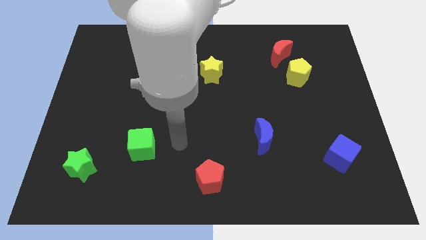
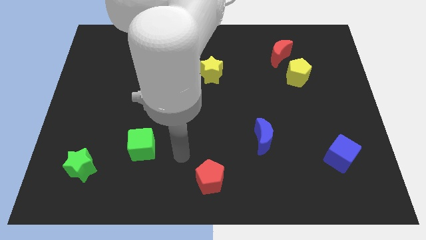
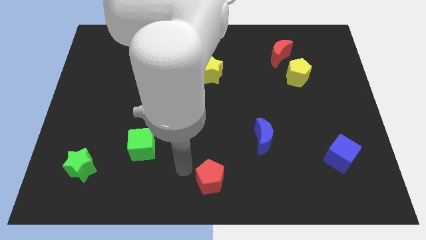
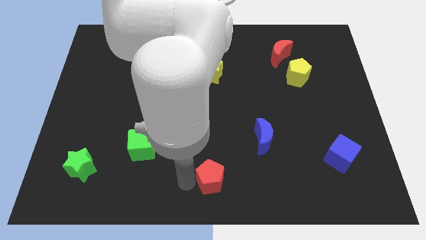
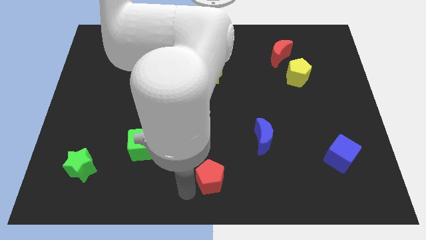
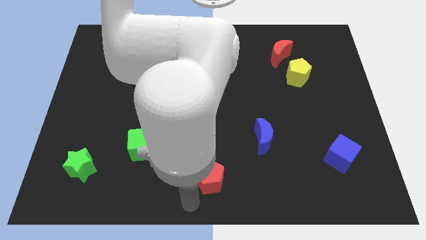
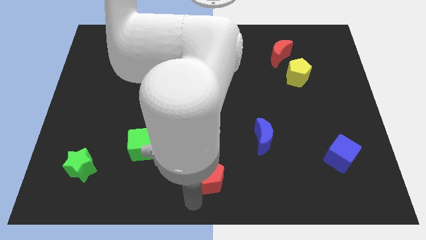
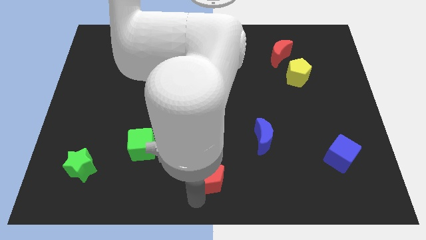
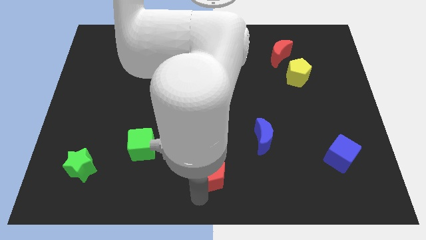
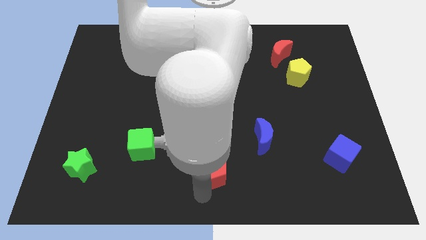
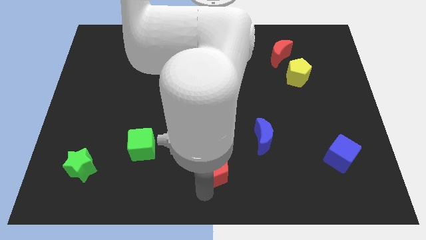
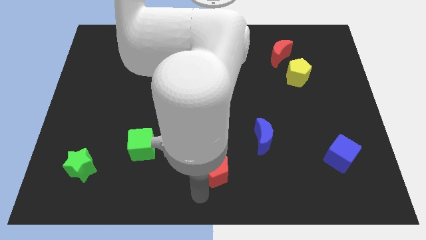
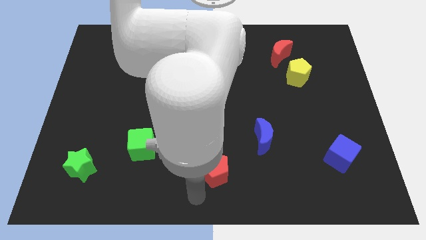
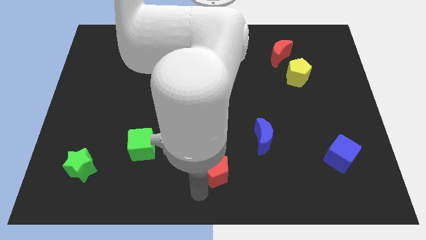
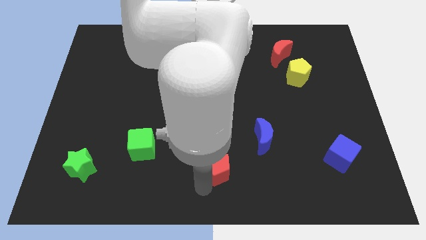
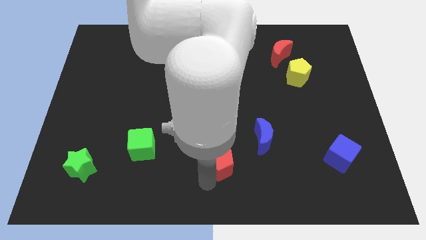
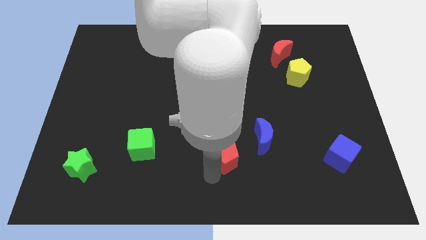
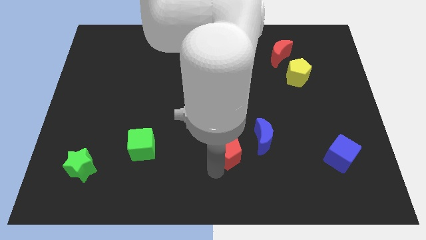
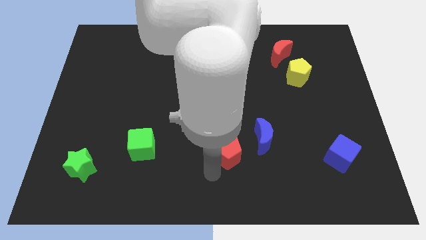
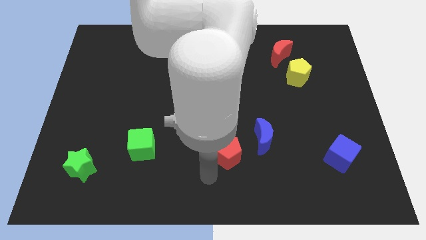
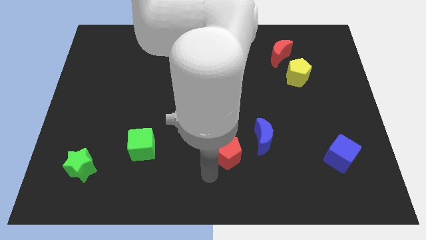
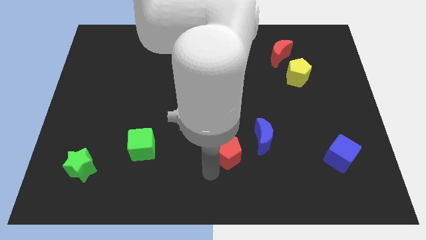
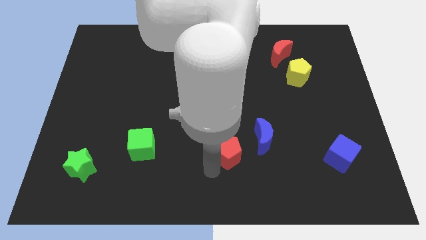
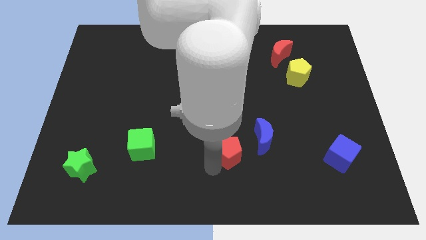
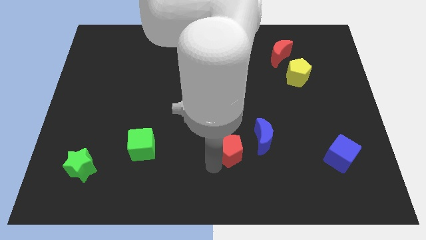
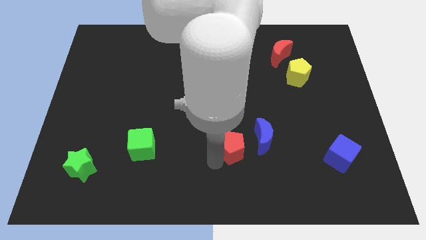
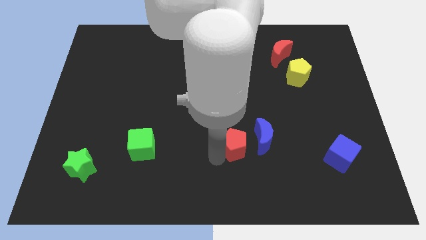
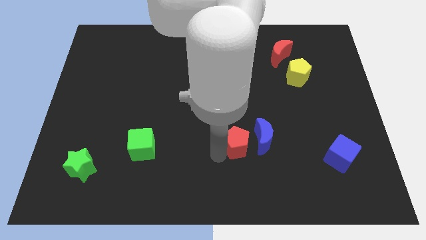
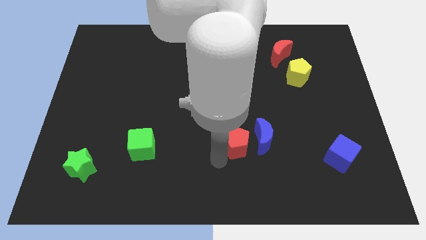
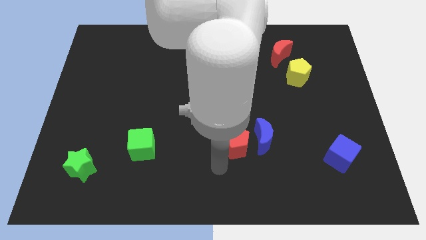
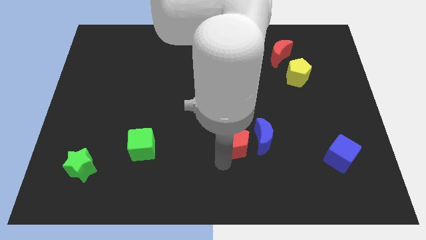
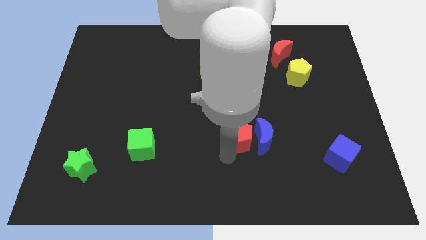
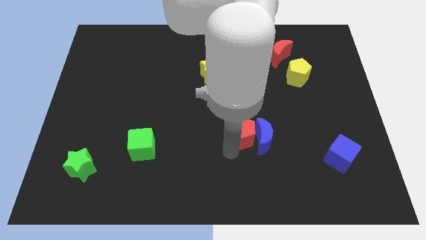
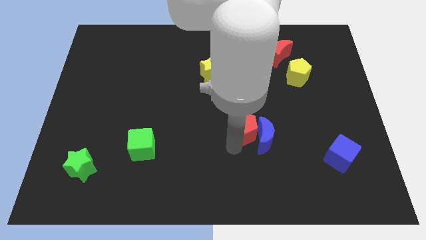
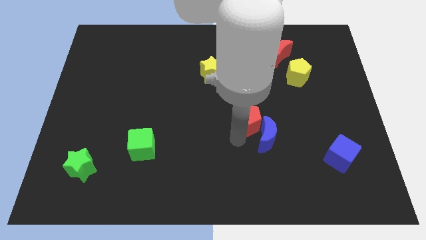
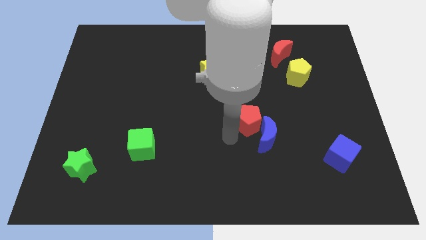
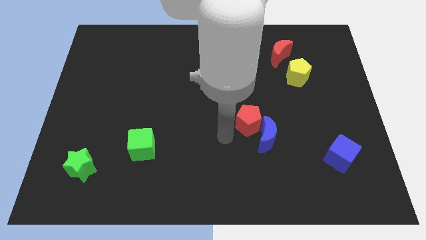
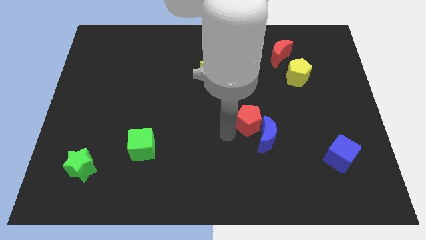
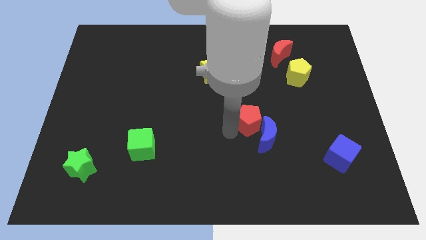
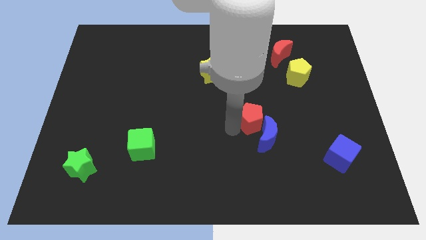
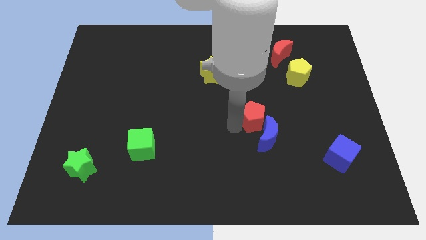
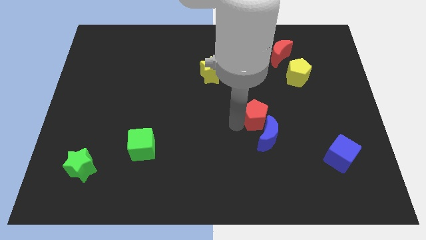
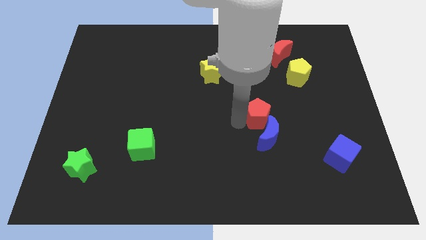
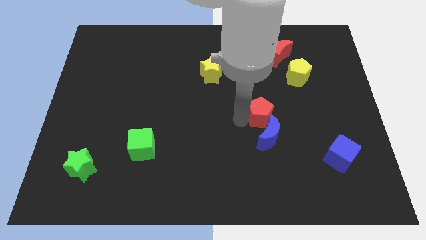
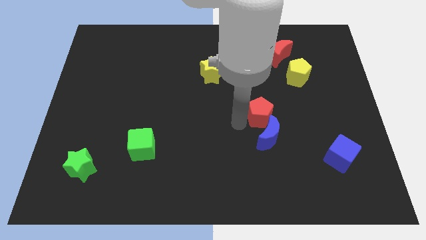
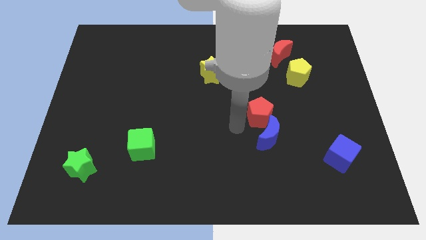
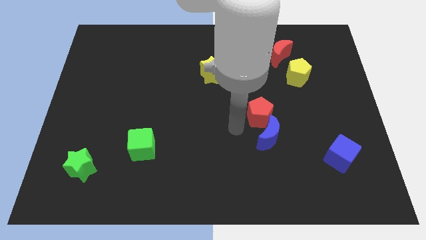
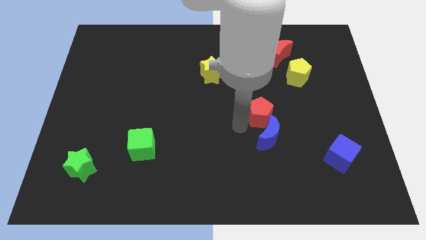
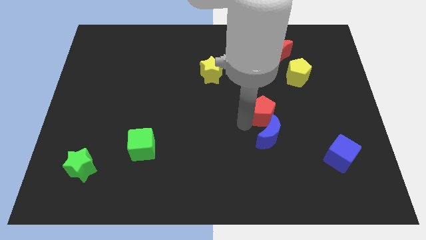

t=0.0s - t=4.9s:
push the red pentagon up and then right

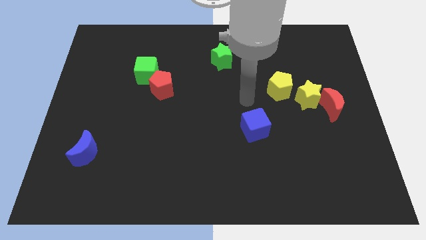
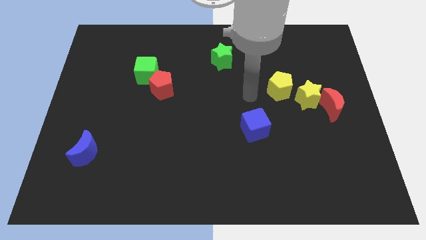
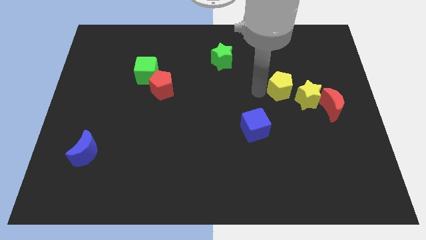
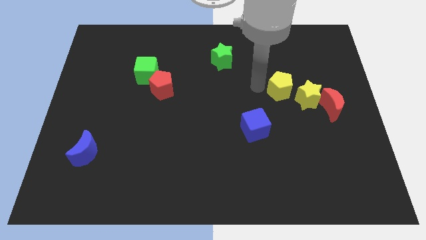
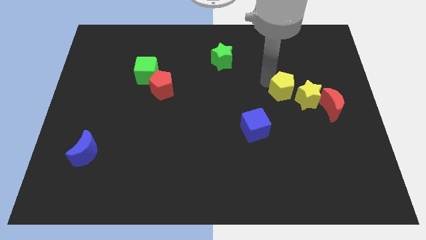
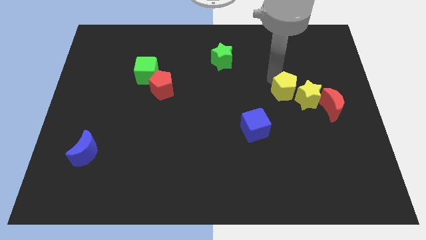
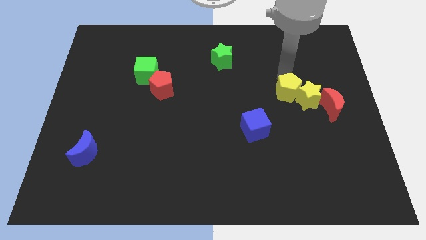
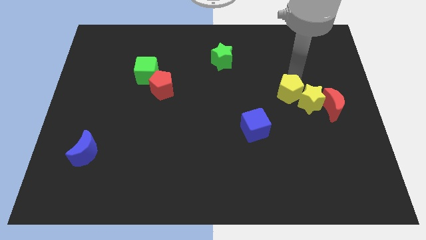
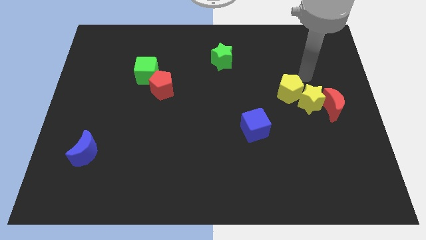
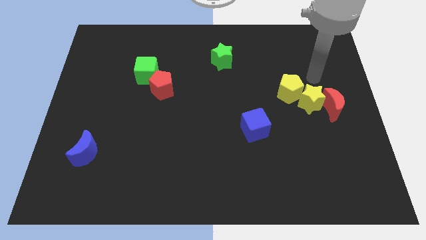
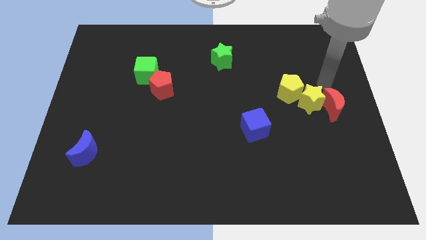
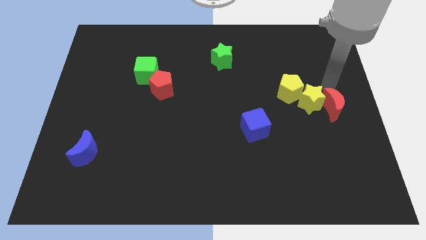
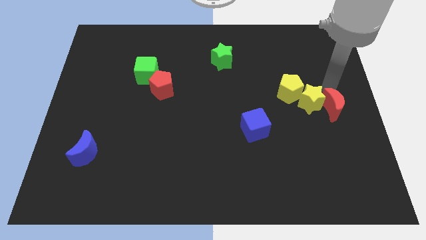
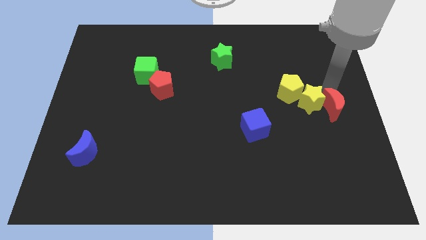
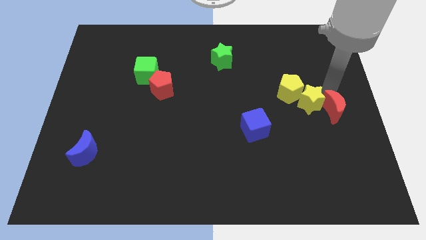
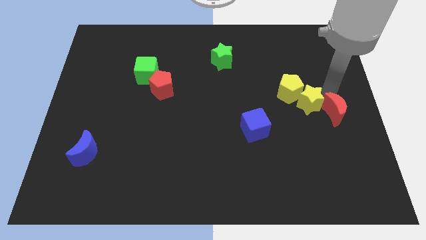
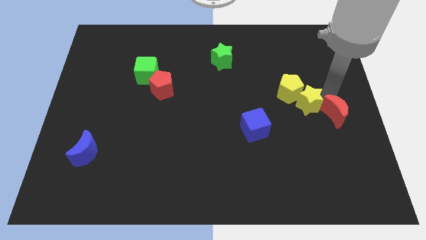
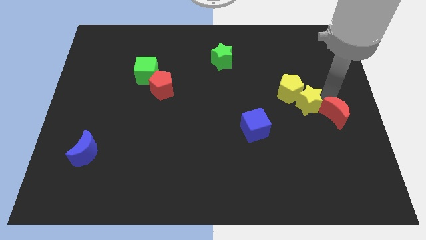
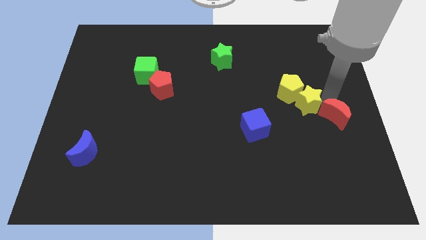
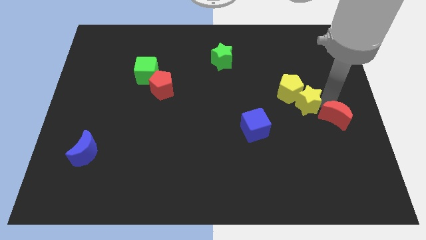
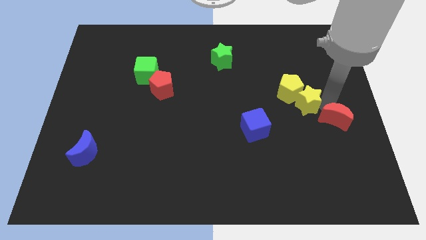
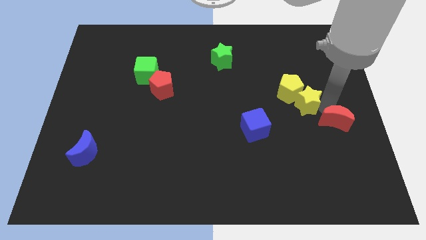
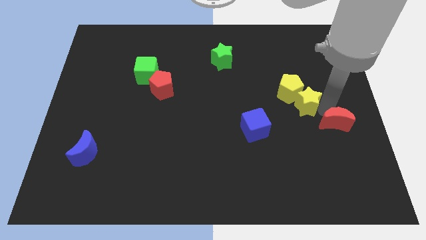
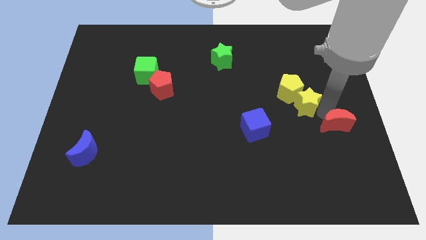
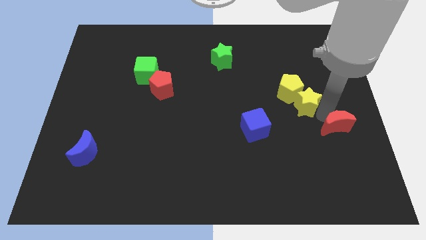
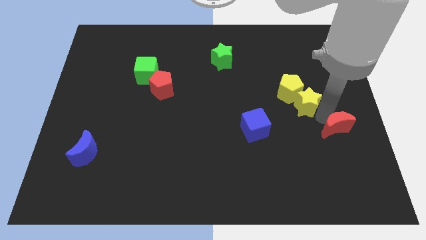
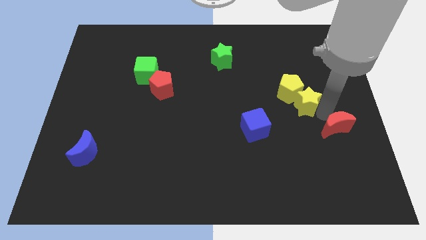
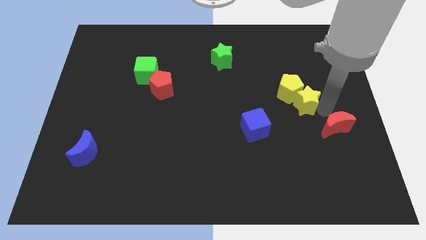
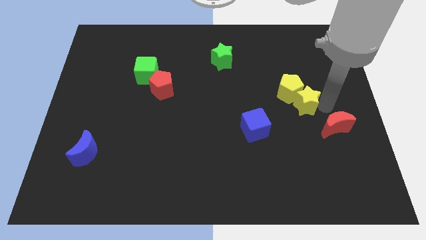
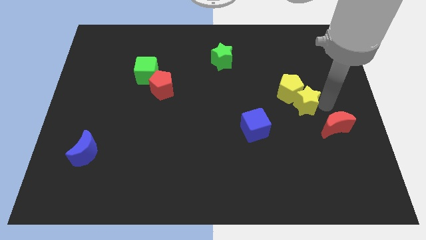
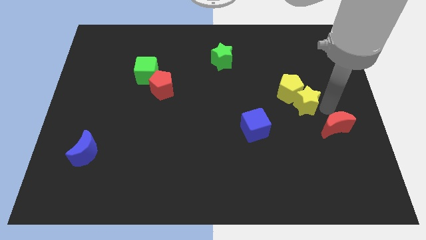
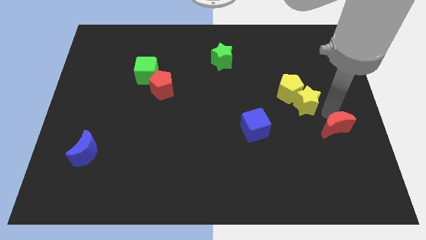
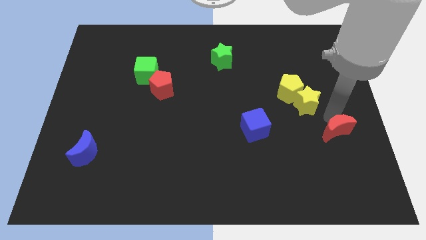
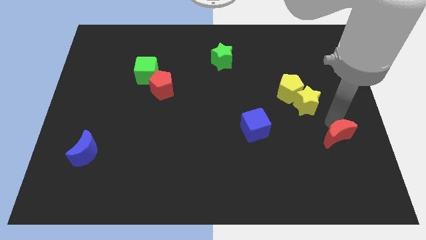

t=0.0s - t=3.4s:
slightly slide the red moon down

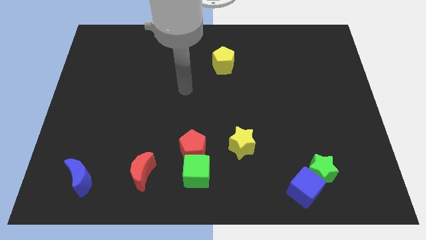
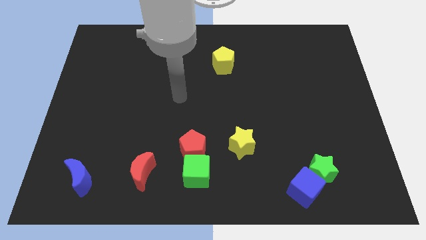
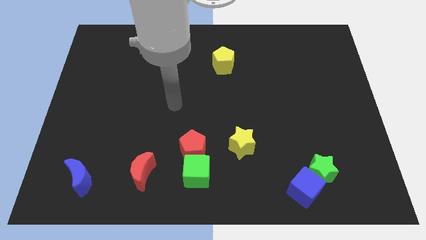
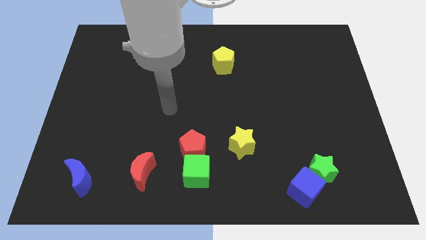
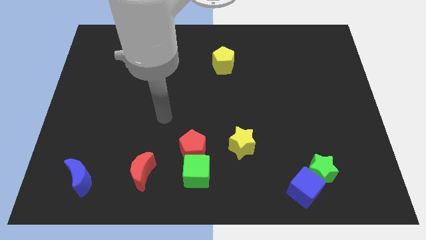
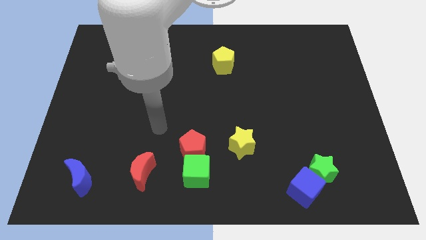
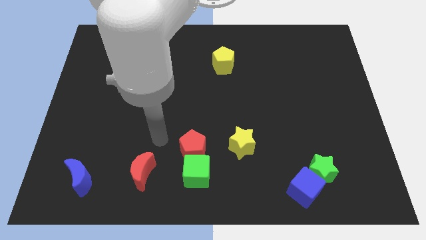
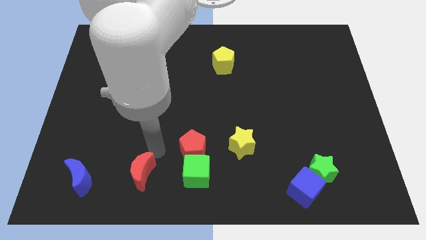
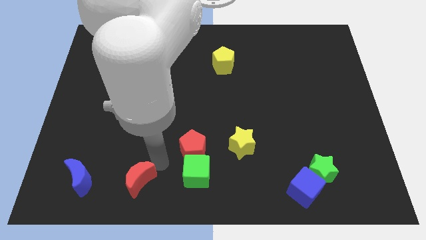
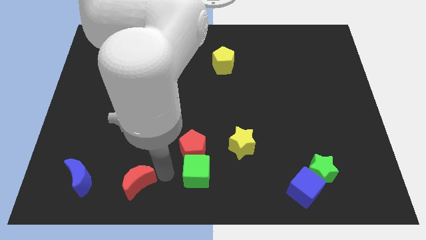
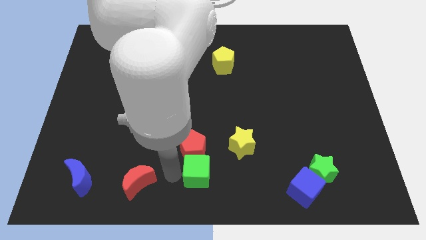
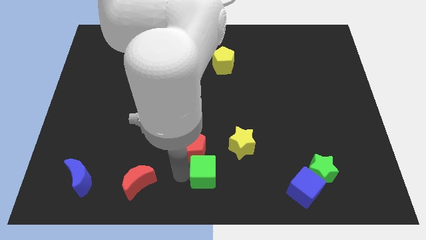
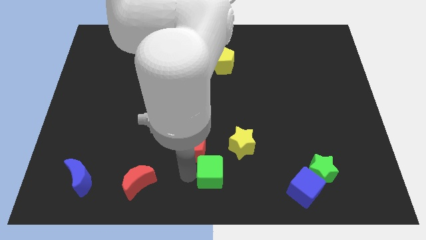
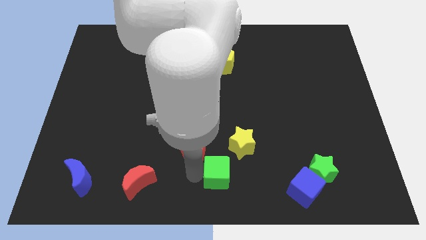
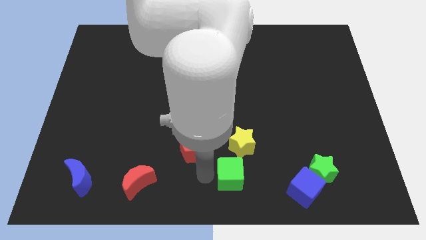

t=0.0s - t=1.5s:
slightly push the green cube to the right
